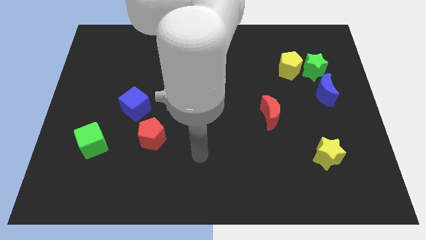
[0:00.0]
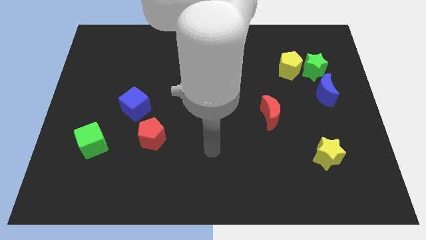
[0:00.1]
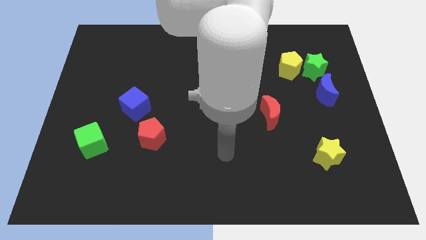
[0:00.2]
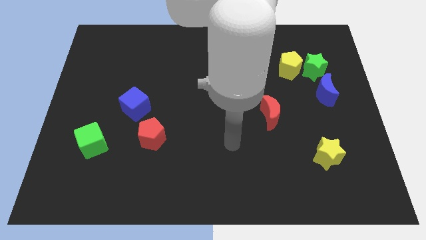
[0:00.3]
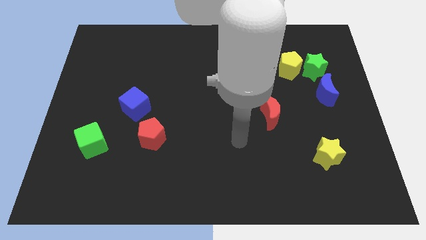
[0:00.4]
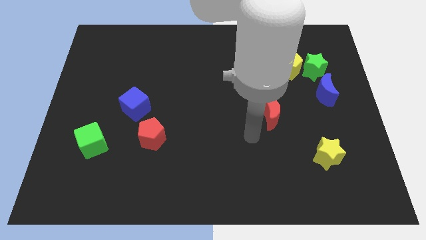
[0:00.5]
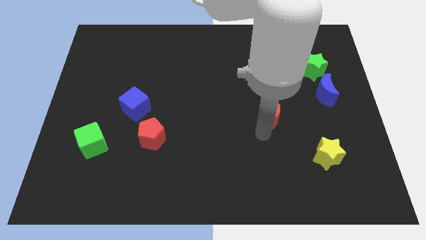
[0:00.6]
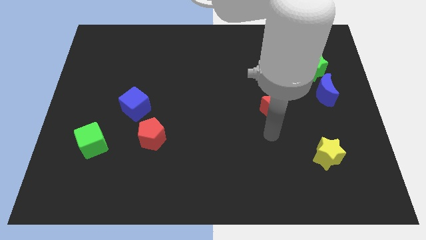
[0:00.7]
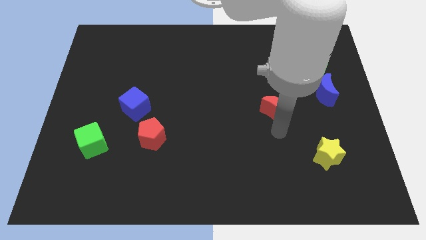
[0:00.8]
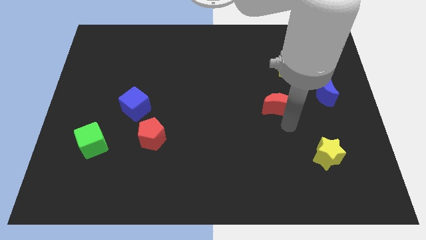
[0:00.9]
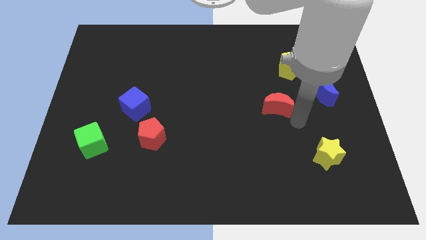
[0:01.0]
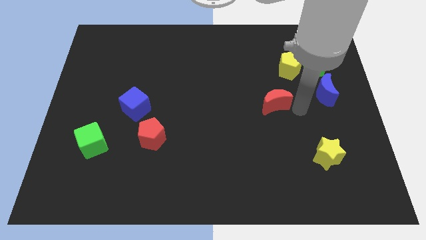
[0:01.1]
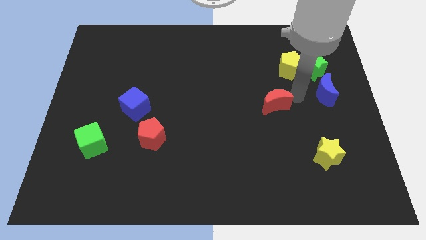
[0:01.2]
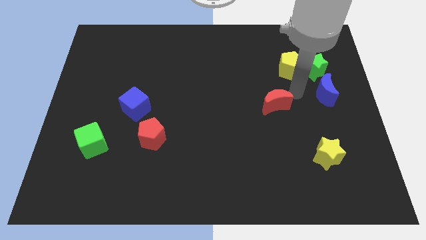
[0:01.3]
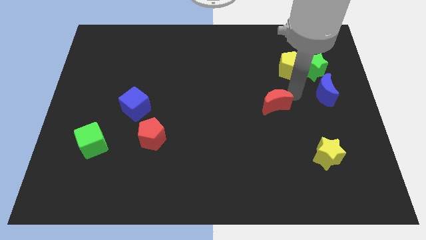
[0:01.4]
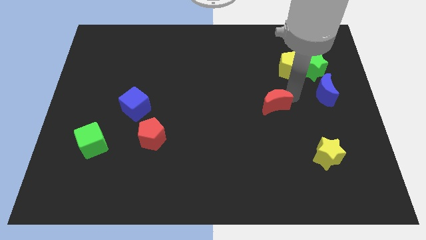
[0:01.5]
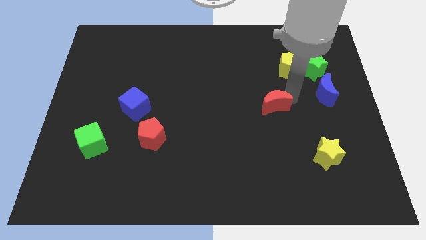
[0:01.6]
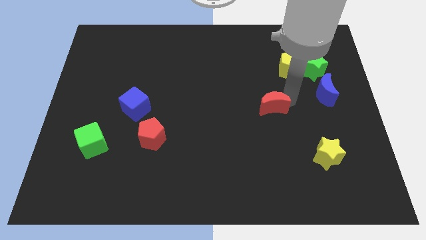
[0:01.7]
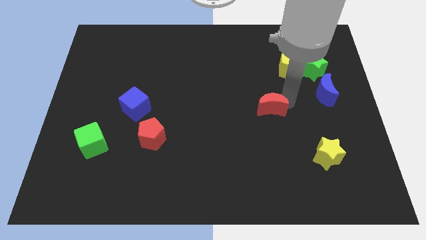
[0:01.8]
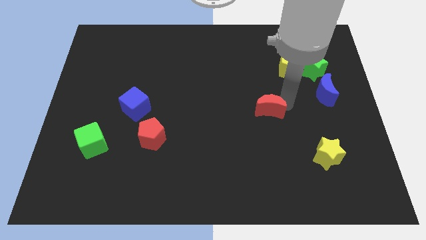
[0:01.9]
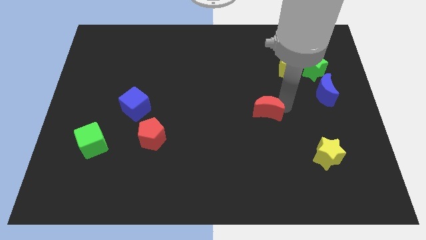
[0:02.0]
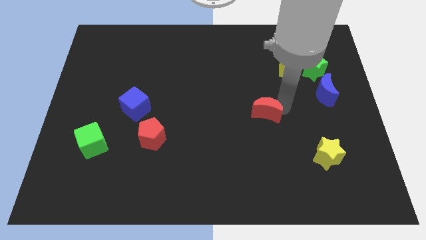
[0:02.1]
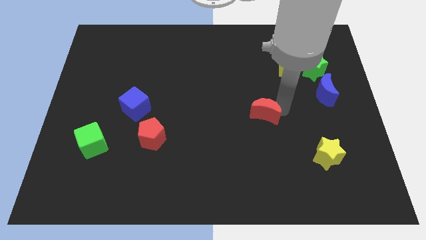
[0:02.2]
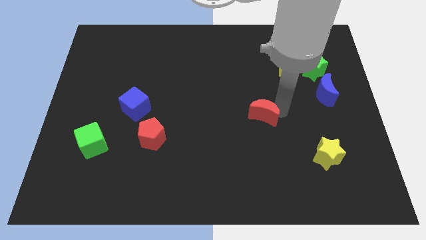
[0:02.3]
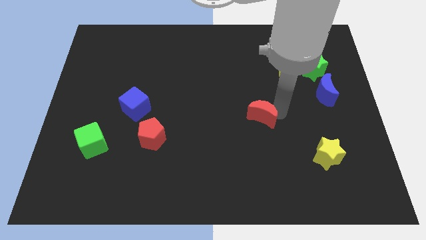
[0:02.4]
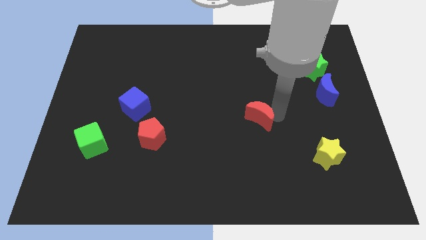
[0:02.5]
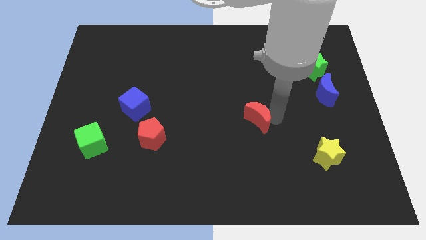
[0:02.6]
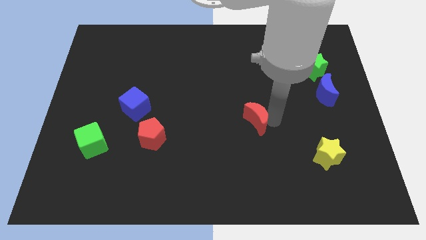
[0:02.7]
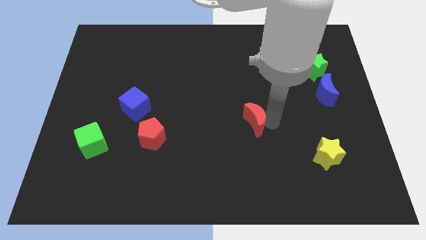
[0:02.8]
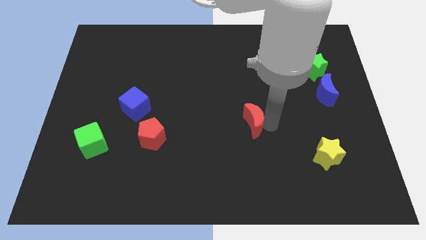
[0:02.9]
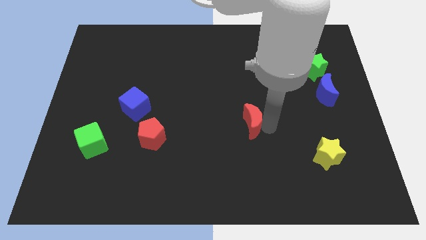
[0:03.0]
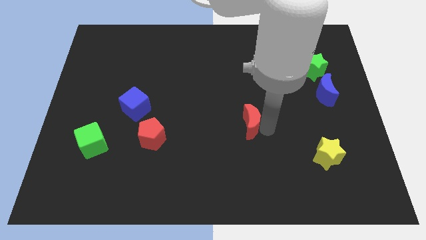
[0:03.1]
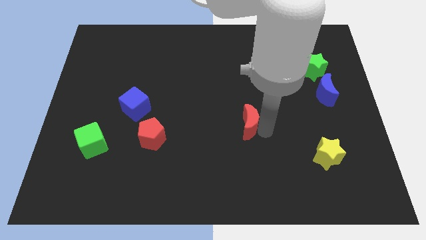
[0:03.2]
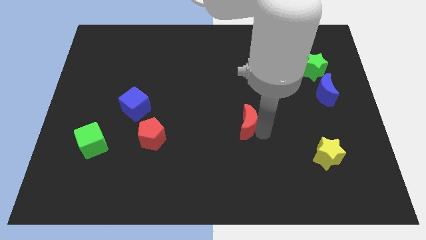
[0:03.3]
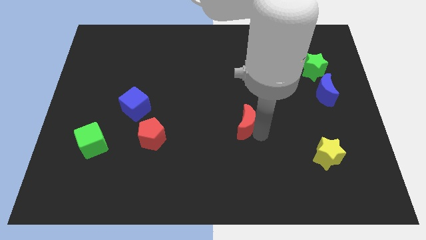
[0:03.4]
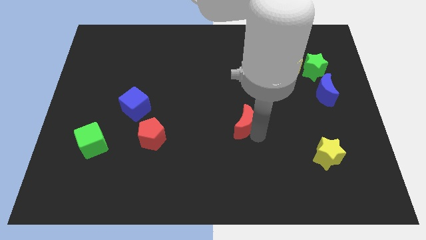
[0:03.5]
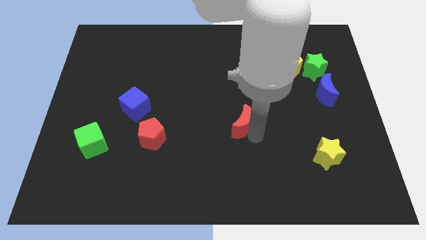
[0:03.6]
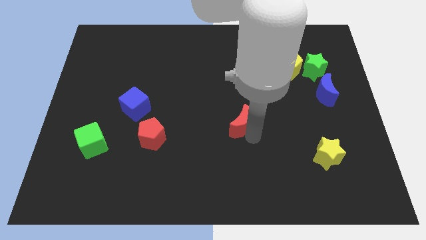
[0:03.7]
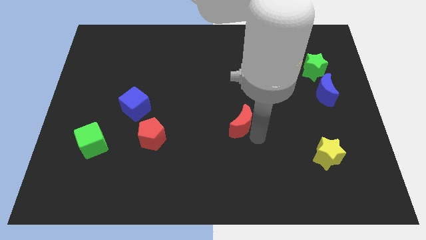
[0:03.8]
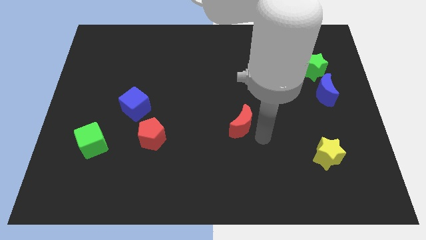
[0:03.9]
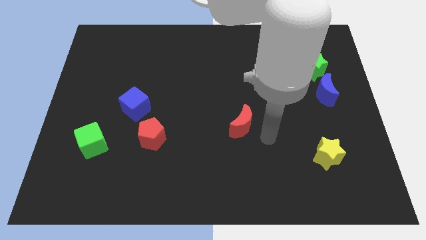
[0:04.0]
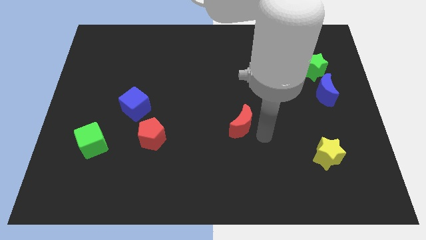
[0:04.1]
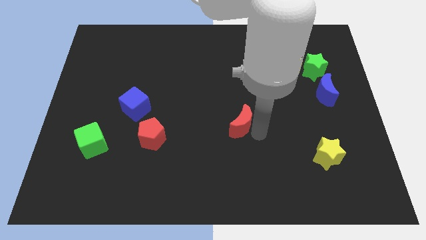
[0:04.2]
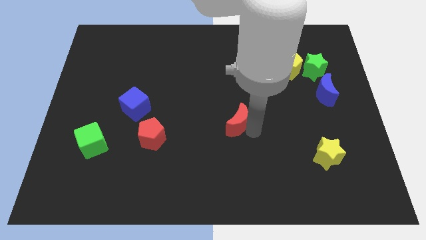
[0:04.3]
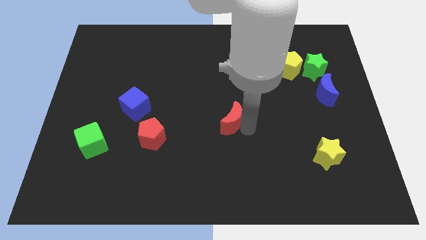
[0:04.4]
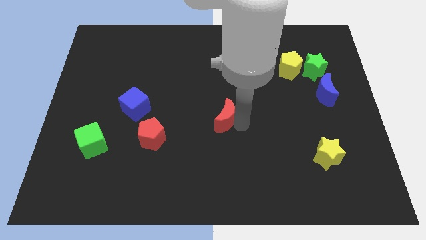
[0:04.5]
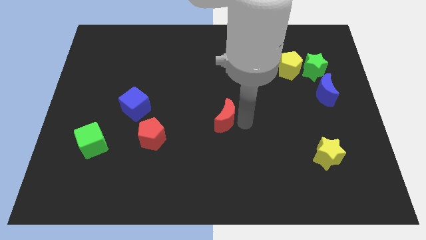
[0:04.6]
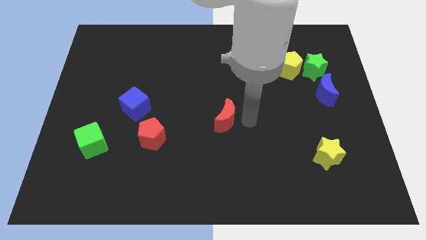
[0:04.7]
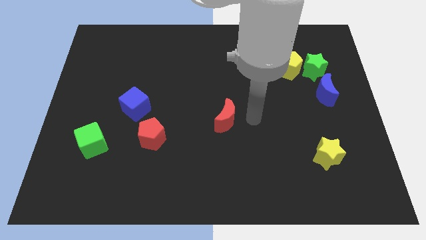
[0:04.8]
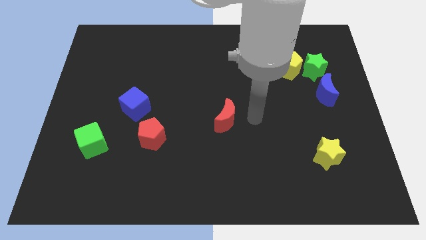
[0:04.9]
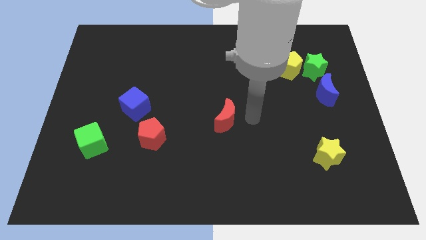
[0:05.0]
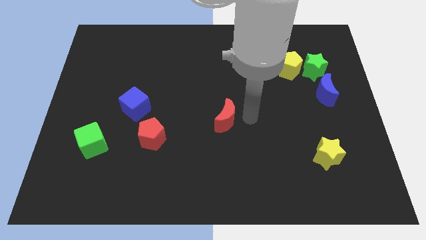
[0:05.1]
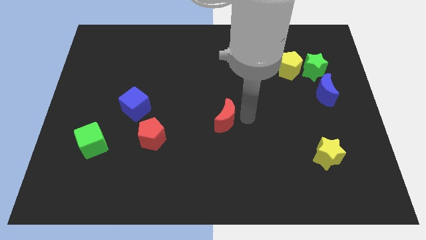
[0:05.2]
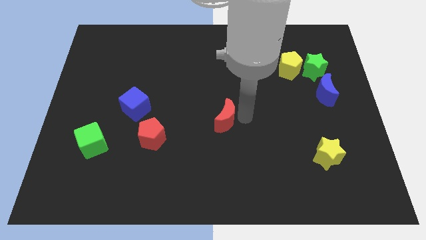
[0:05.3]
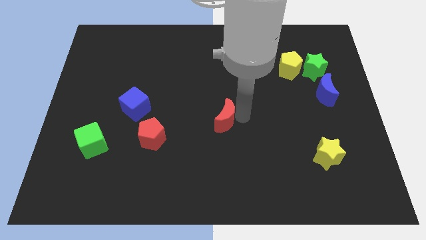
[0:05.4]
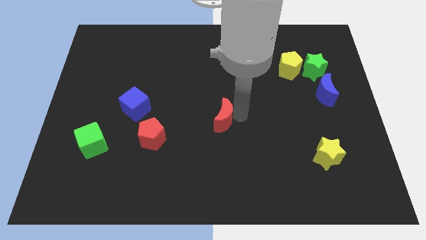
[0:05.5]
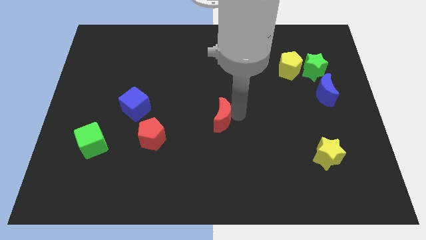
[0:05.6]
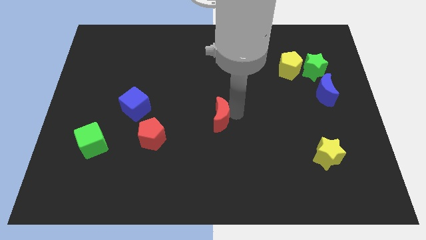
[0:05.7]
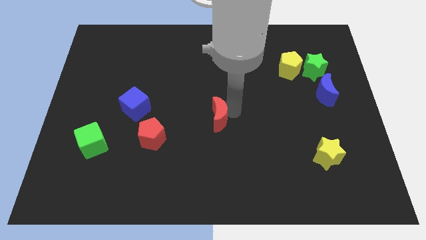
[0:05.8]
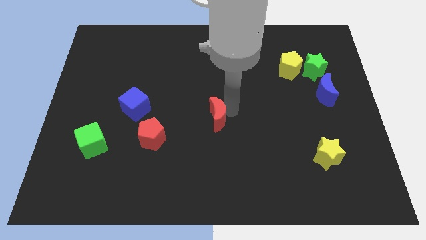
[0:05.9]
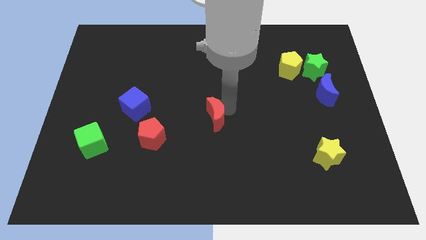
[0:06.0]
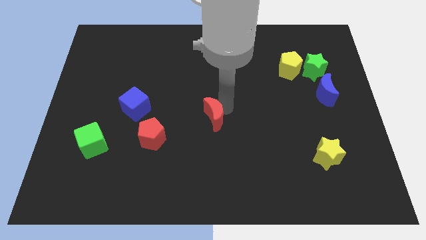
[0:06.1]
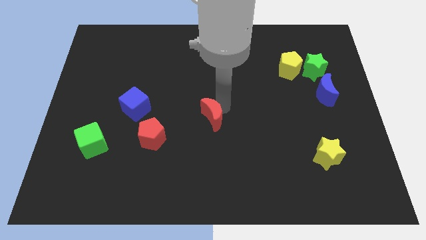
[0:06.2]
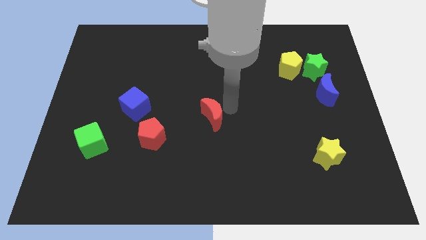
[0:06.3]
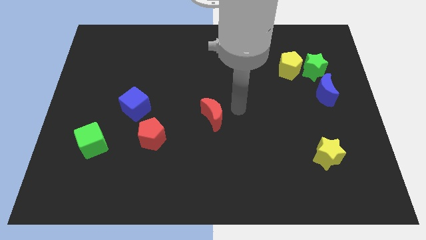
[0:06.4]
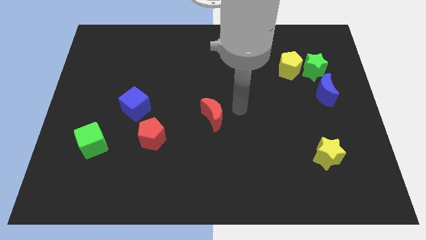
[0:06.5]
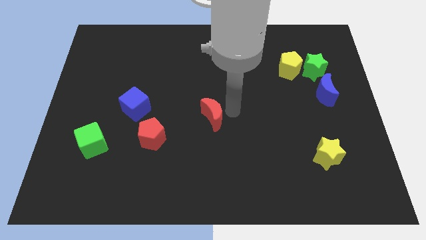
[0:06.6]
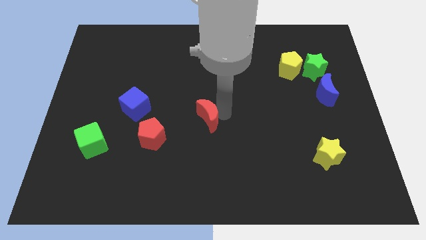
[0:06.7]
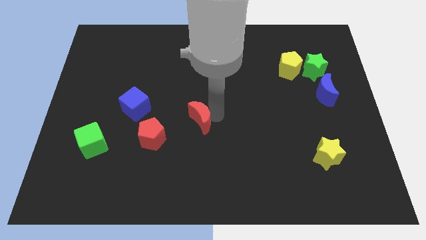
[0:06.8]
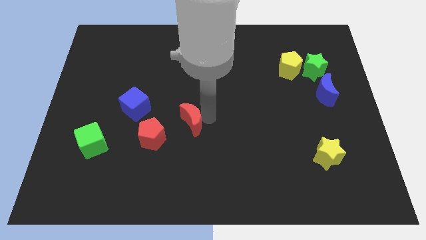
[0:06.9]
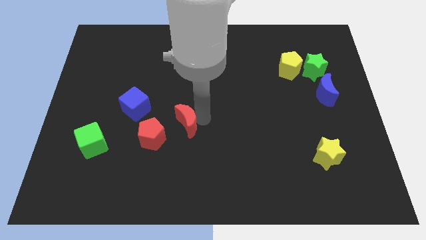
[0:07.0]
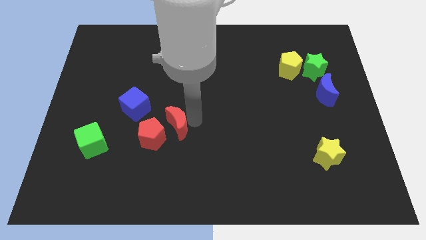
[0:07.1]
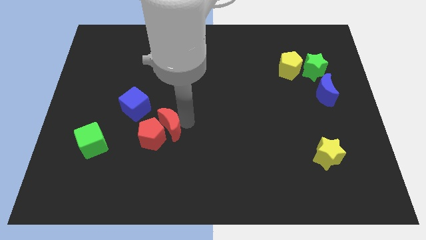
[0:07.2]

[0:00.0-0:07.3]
put the red moon close to the red pentagon
